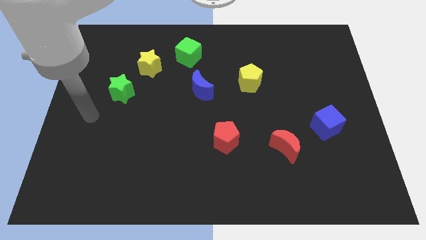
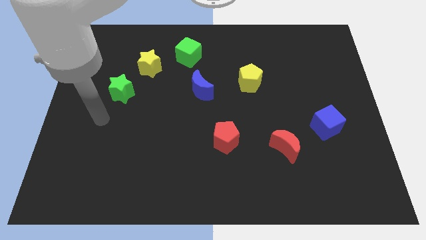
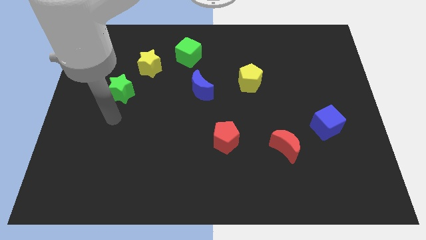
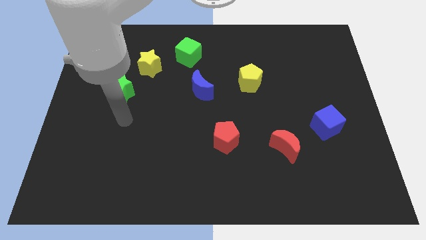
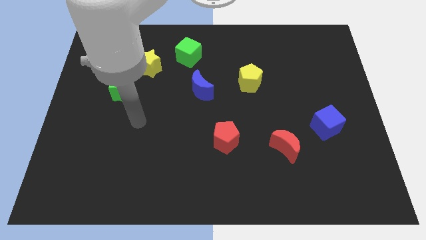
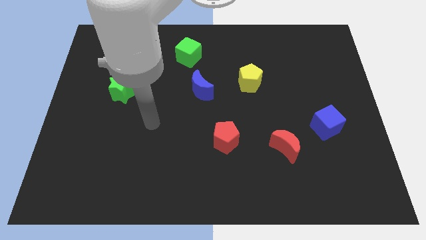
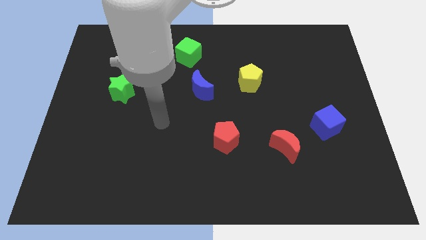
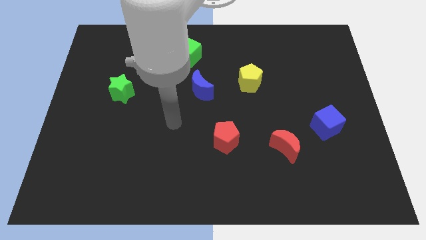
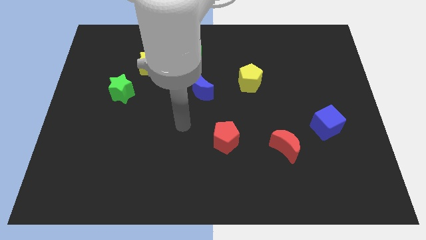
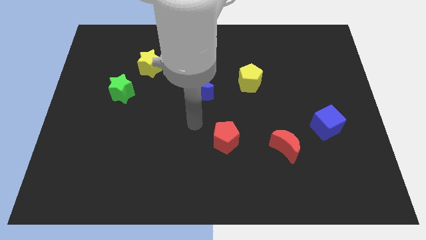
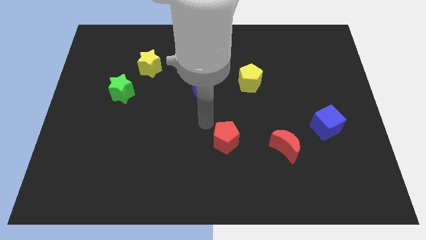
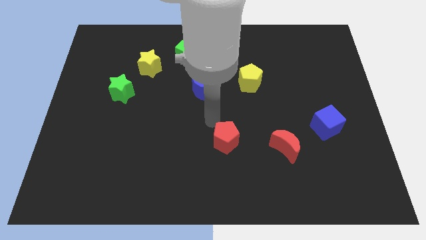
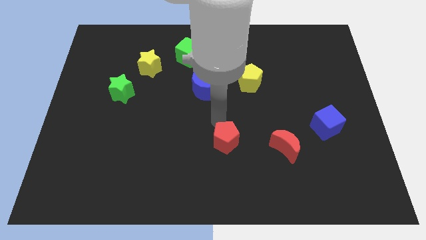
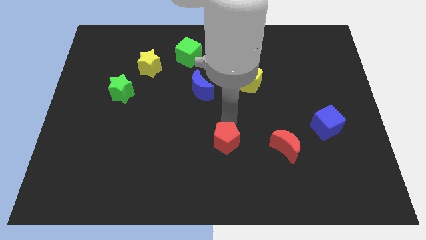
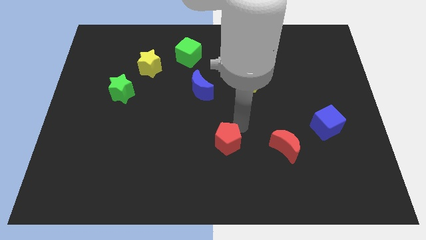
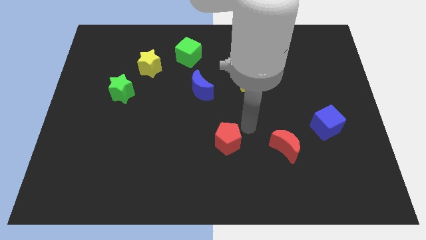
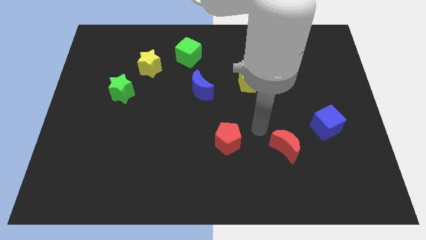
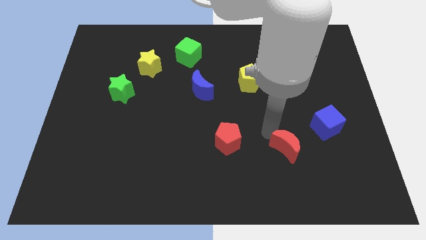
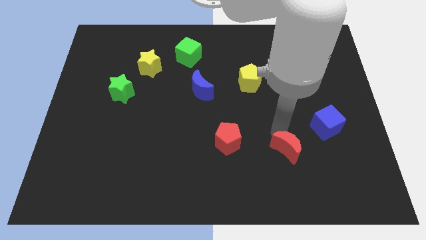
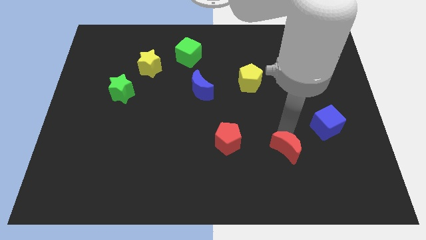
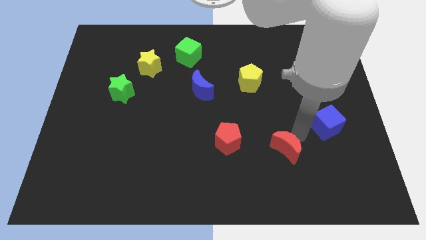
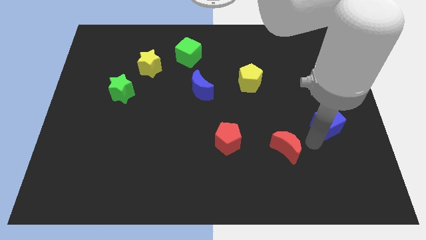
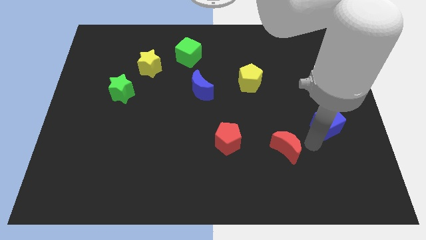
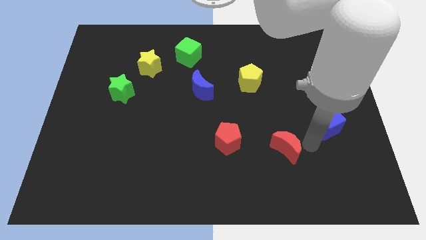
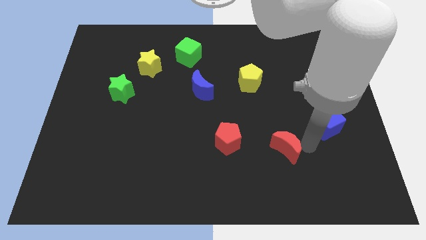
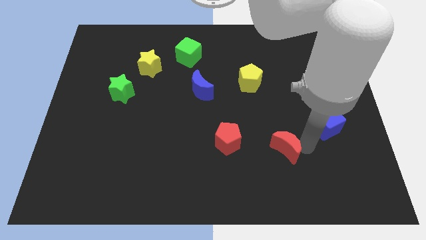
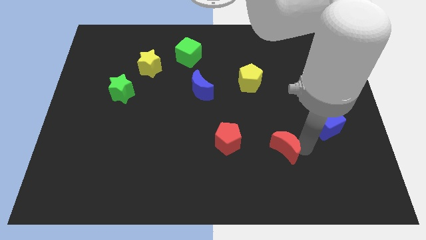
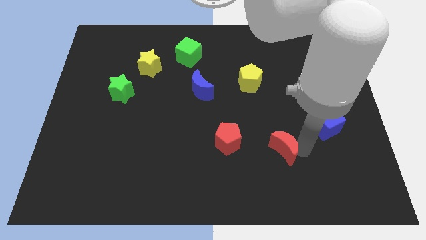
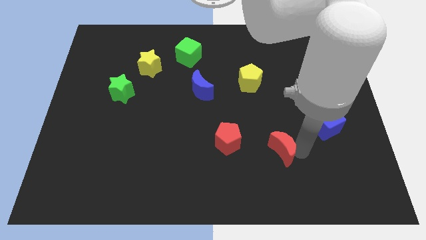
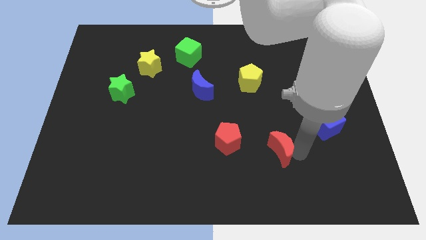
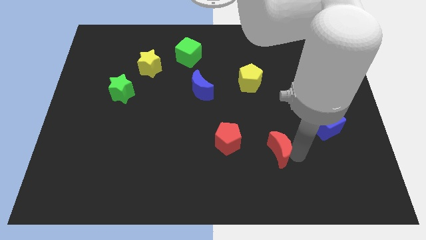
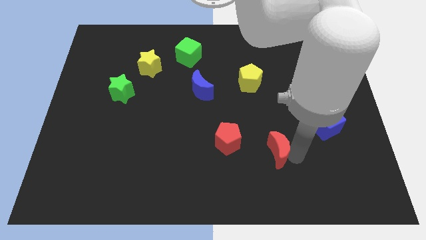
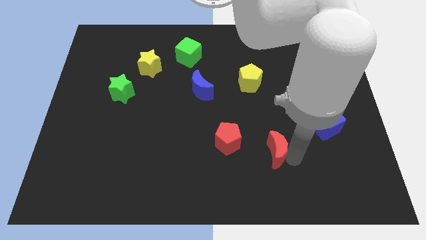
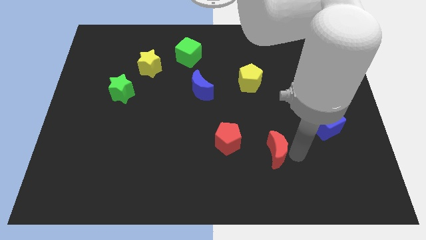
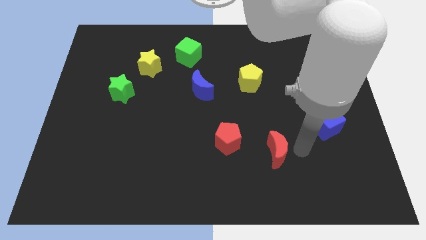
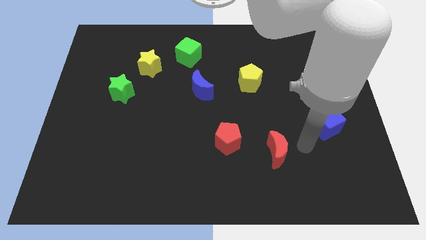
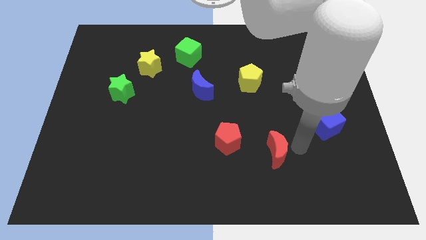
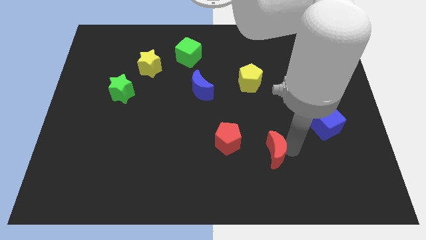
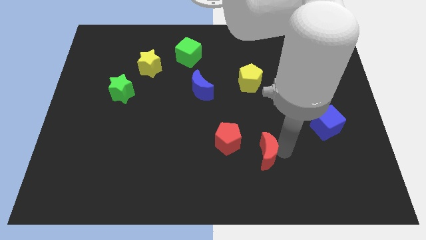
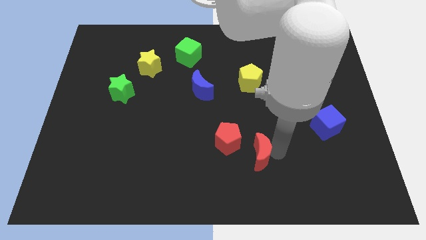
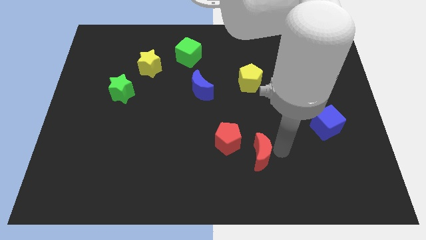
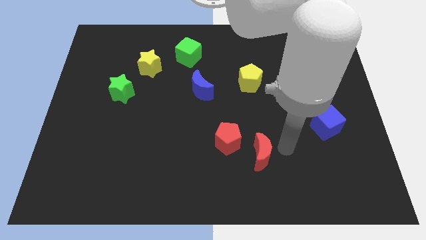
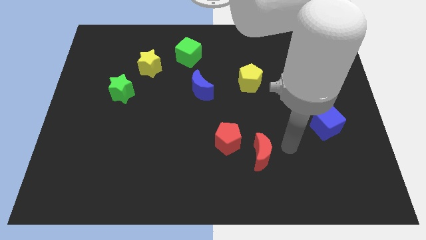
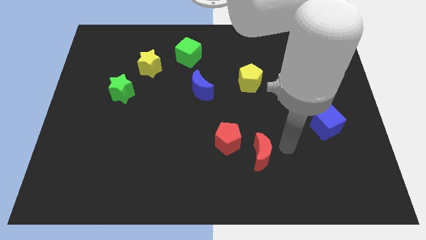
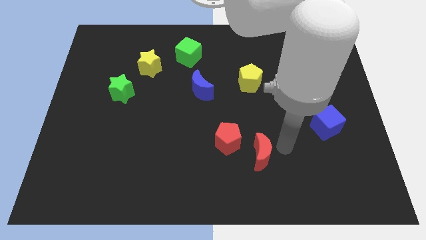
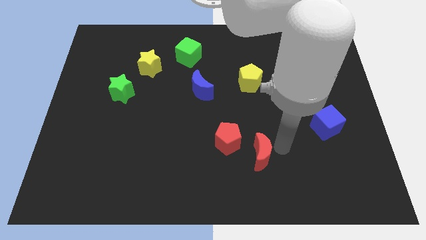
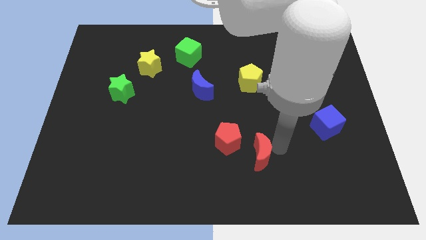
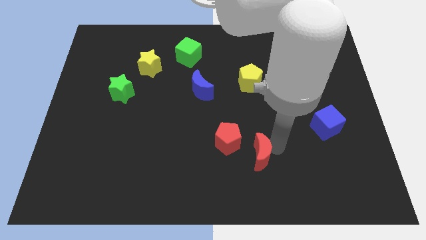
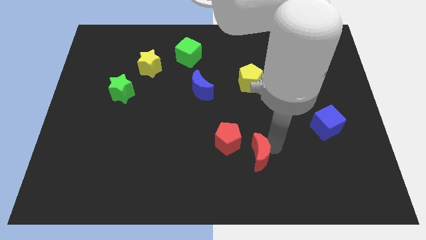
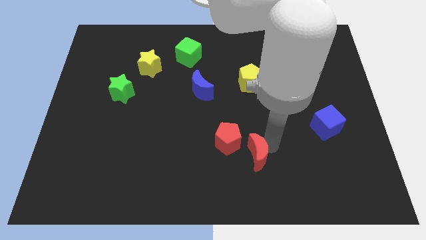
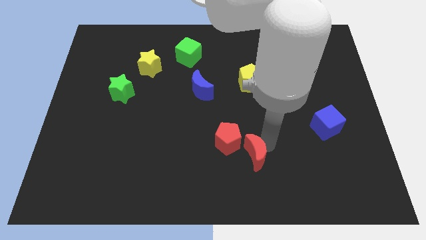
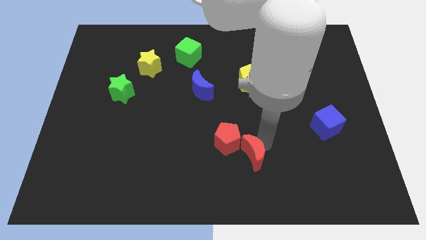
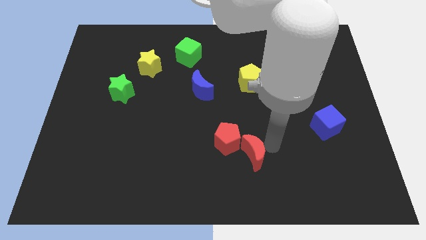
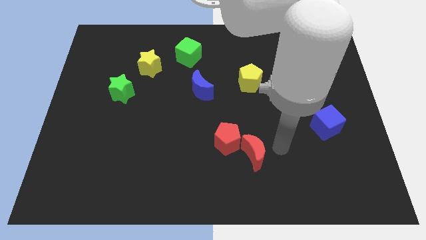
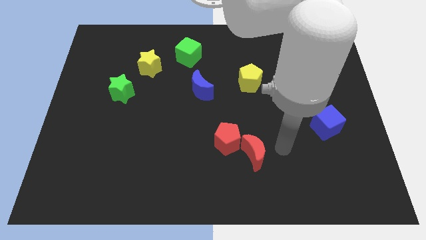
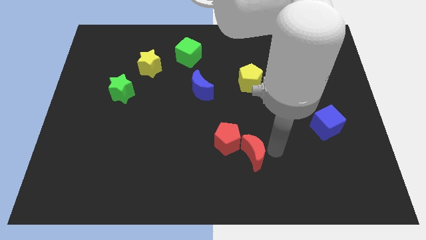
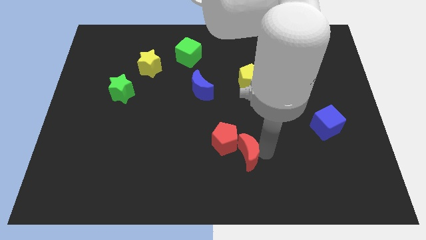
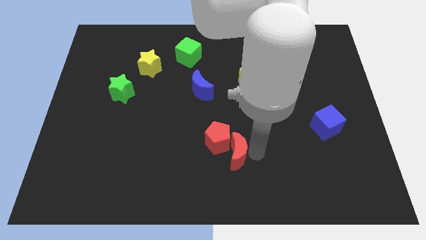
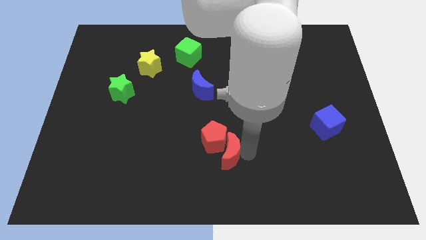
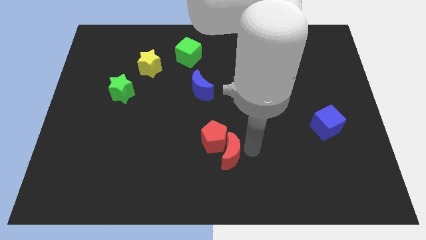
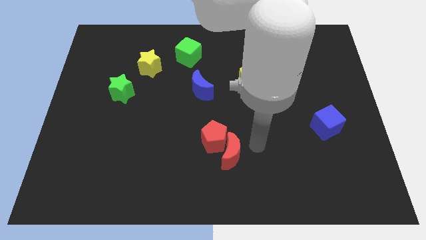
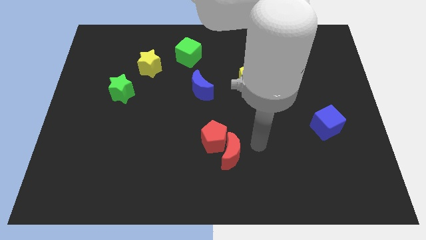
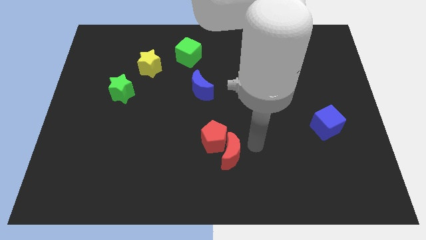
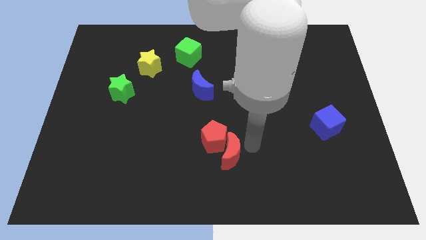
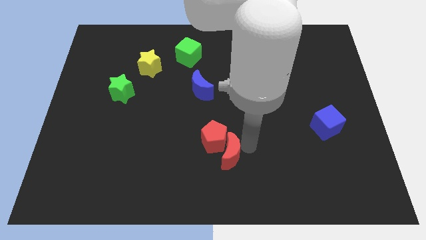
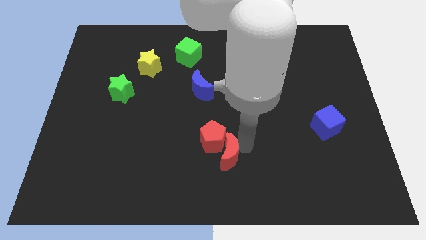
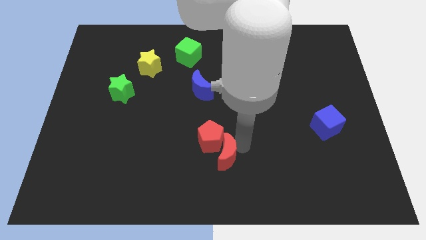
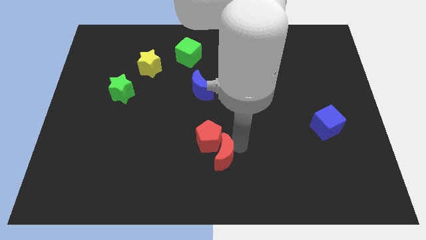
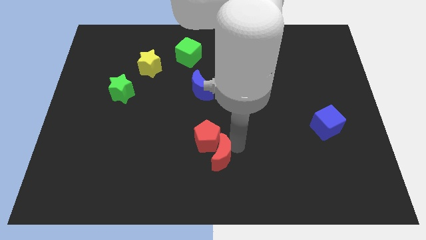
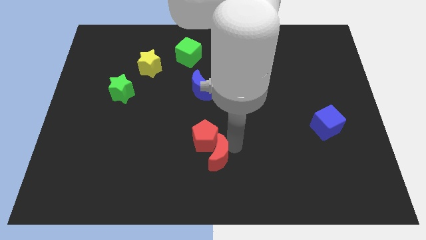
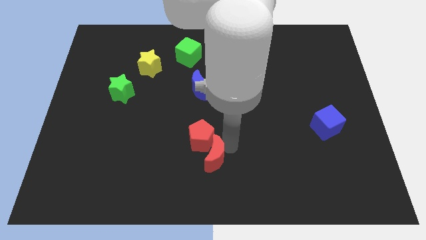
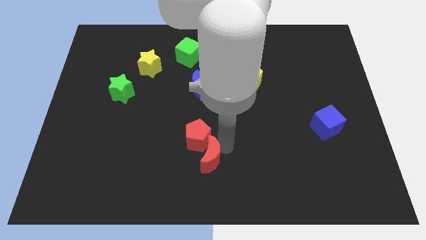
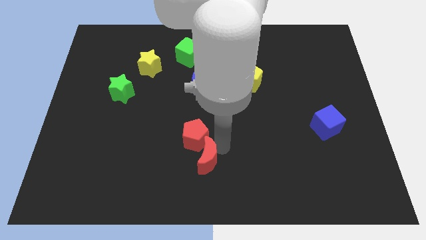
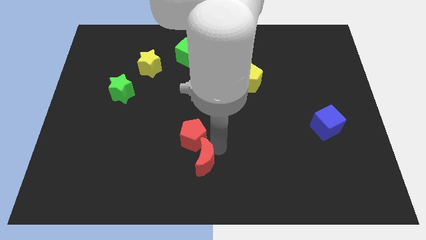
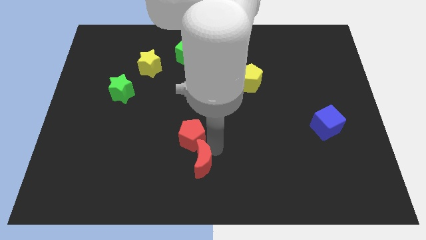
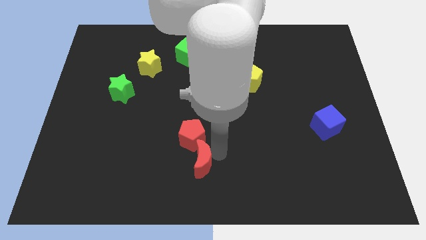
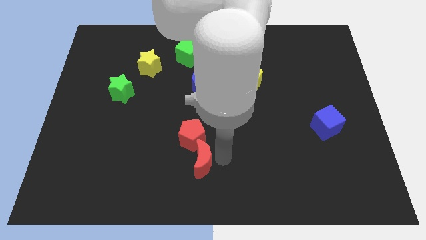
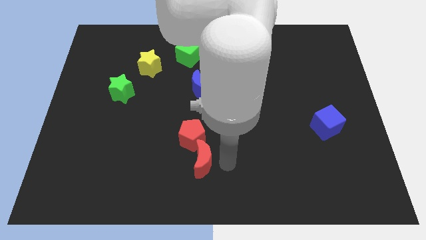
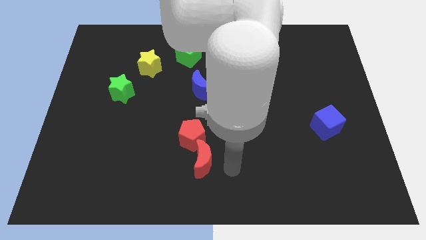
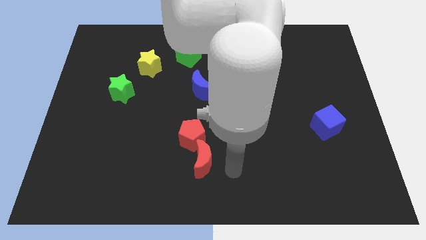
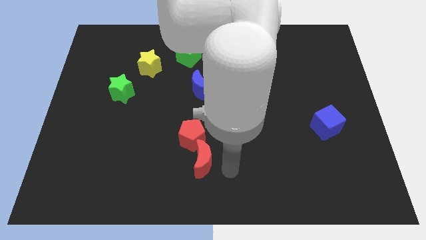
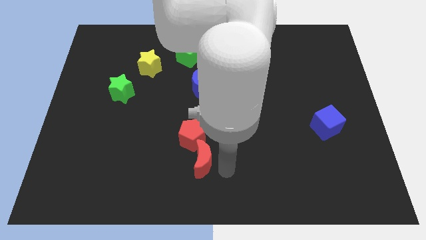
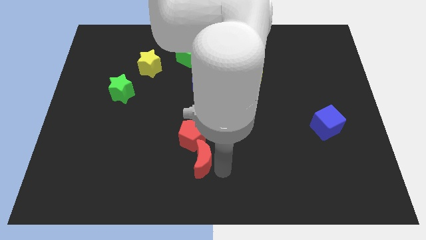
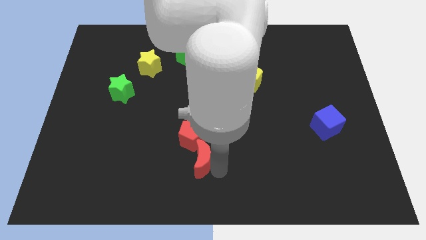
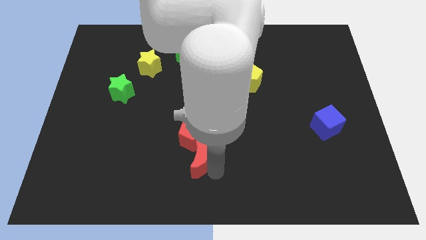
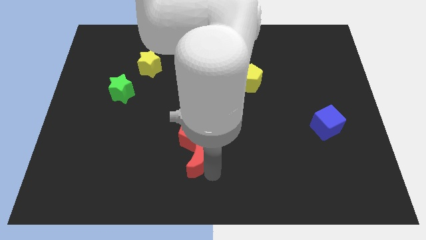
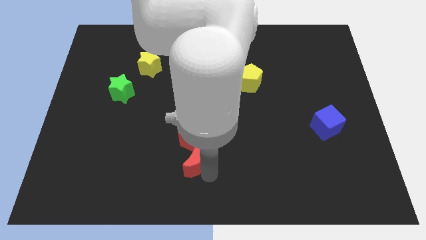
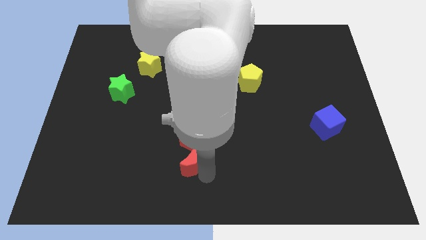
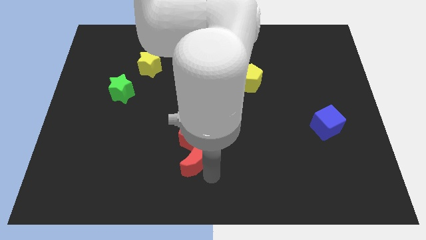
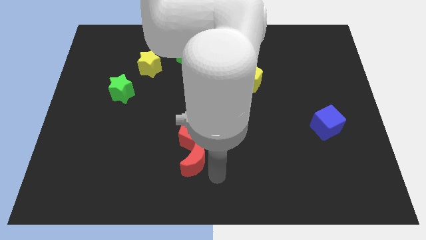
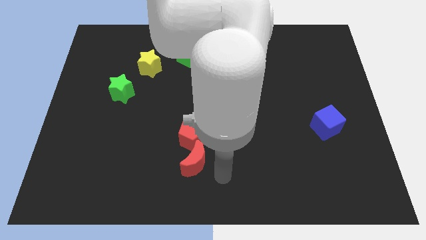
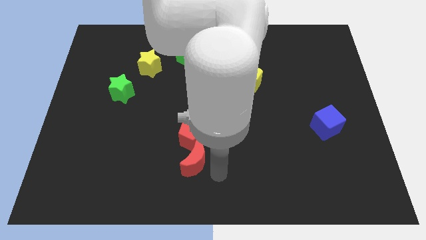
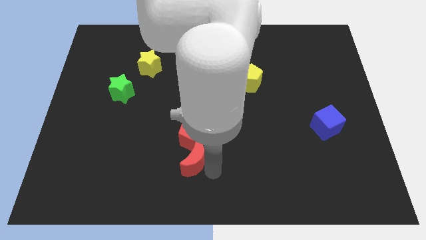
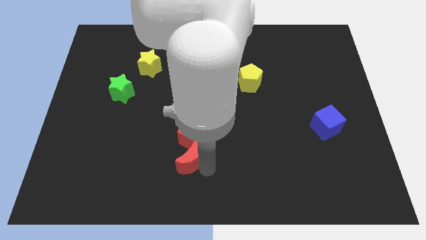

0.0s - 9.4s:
push the red moon left
